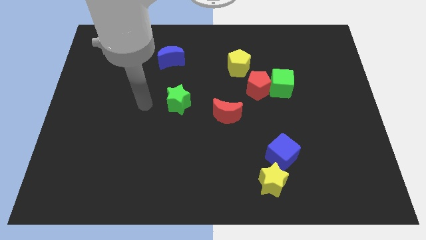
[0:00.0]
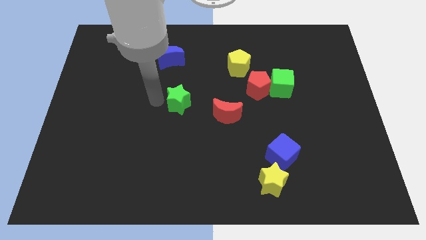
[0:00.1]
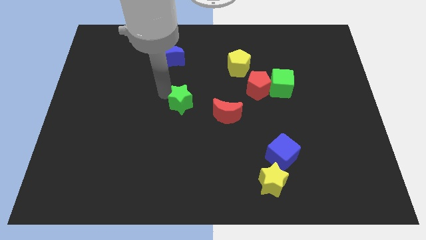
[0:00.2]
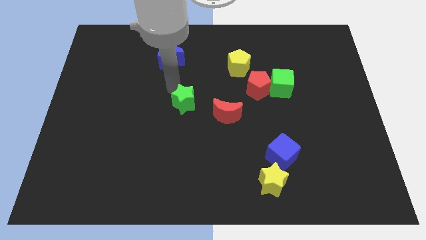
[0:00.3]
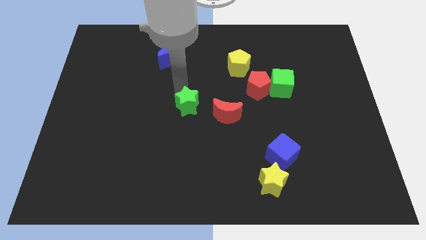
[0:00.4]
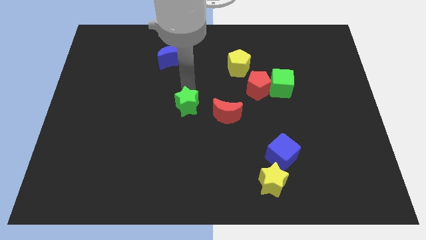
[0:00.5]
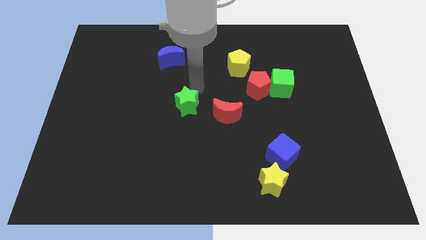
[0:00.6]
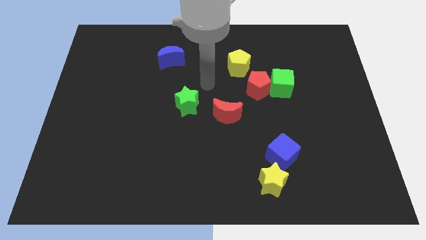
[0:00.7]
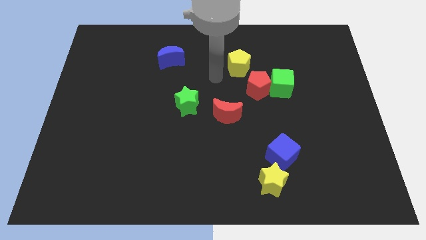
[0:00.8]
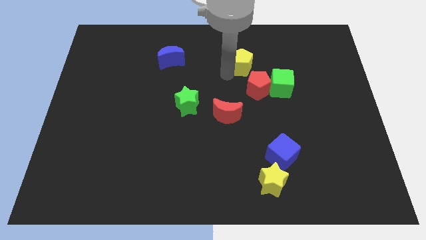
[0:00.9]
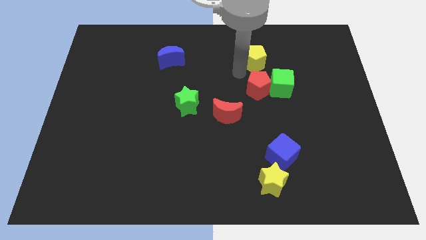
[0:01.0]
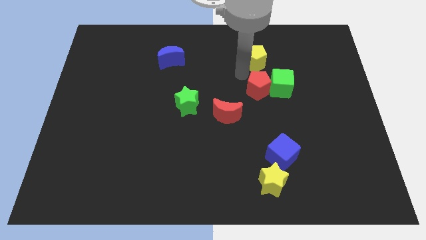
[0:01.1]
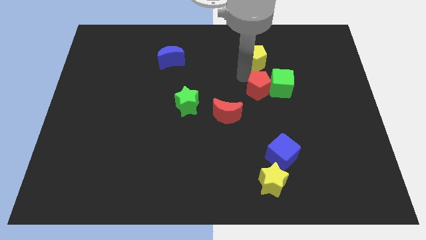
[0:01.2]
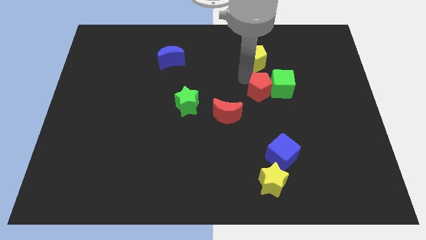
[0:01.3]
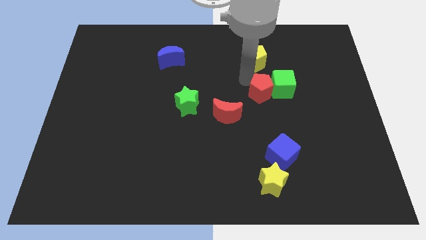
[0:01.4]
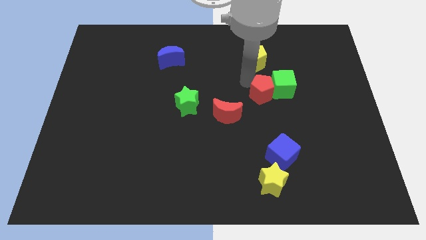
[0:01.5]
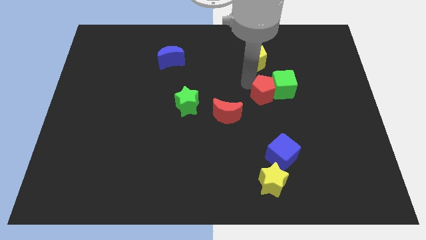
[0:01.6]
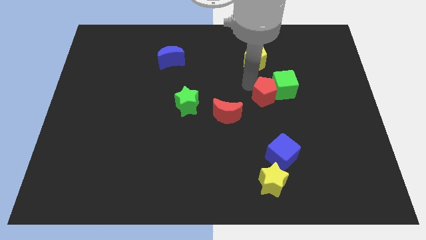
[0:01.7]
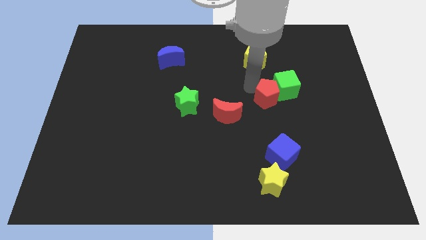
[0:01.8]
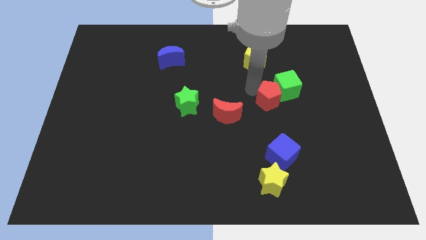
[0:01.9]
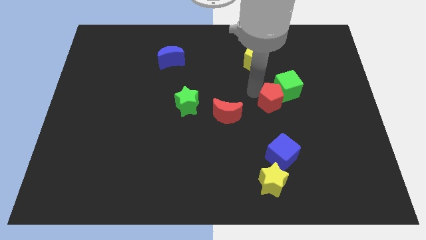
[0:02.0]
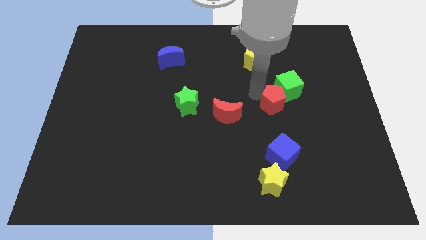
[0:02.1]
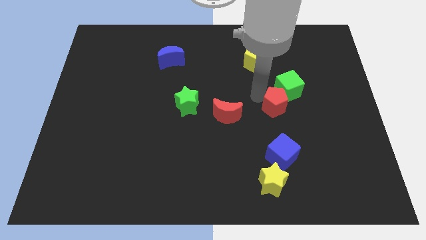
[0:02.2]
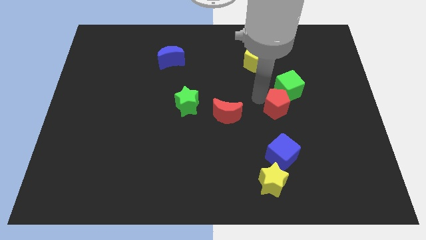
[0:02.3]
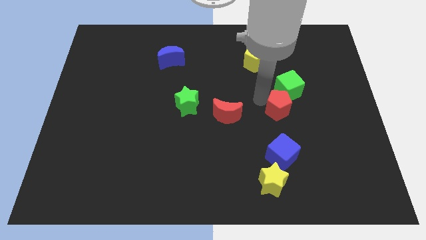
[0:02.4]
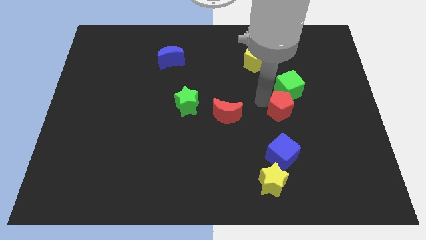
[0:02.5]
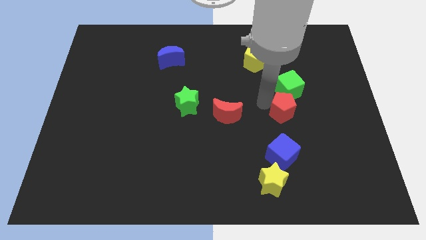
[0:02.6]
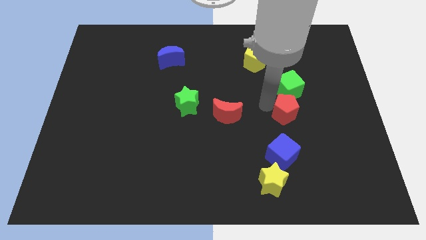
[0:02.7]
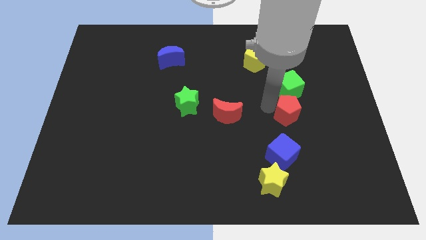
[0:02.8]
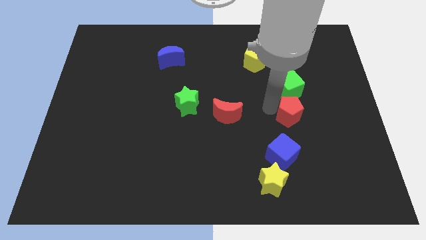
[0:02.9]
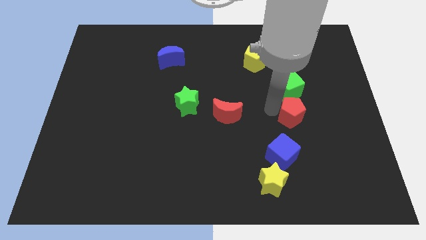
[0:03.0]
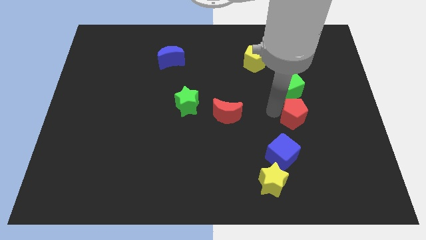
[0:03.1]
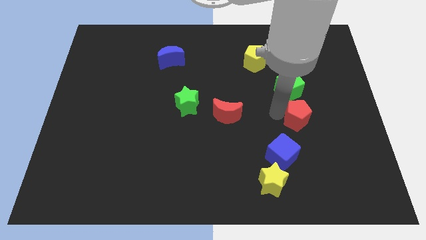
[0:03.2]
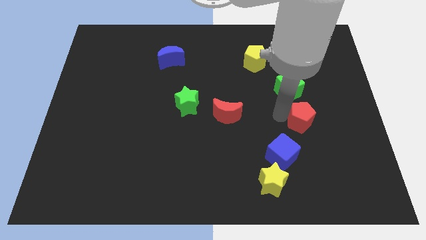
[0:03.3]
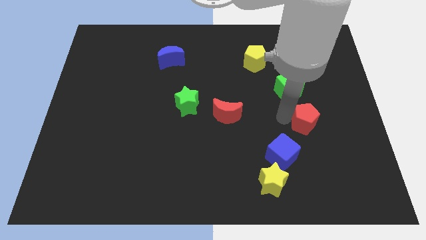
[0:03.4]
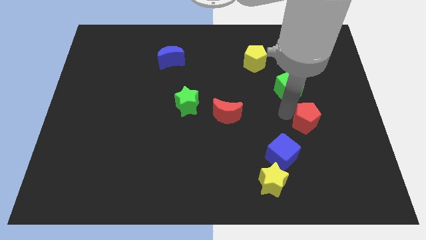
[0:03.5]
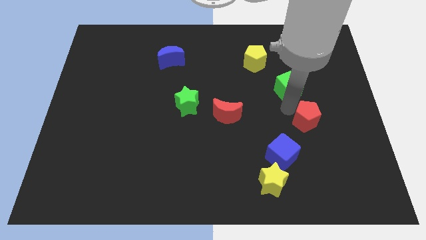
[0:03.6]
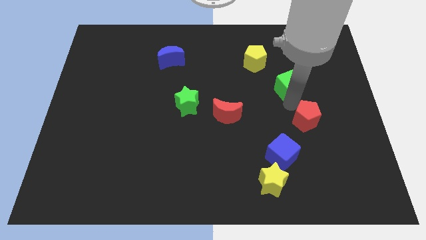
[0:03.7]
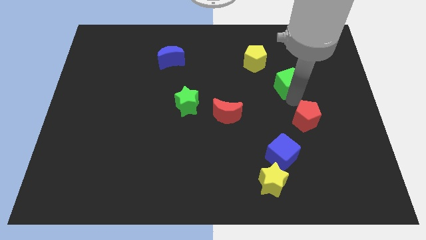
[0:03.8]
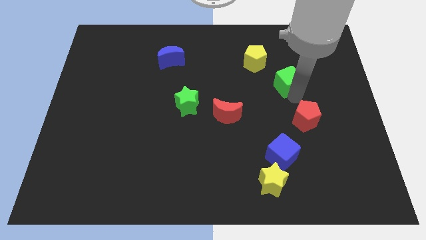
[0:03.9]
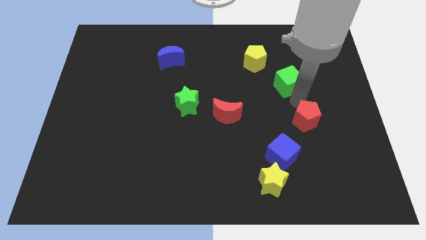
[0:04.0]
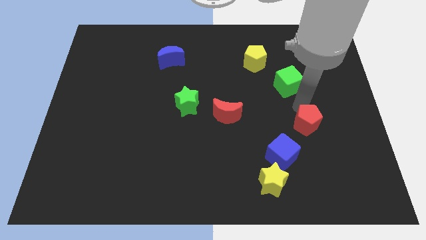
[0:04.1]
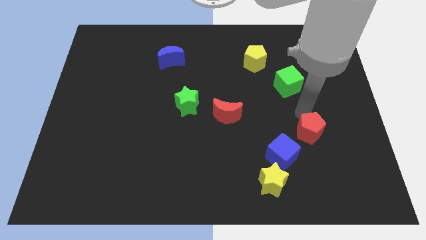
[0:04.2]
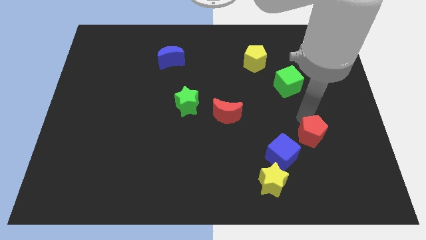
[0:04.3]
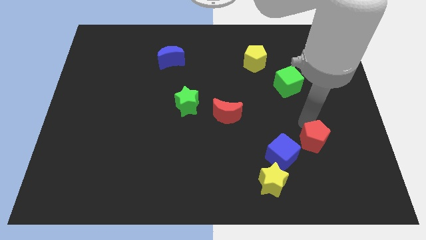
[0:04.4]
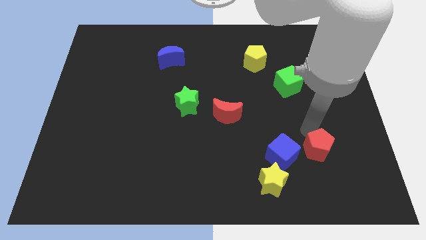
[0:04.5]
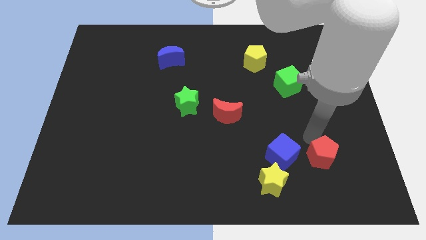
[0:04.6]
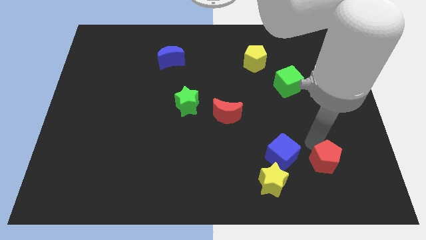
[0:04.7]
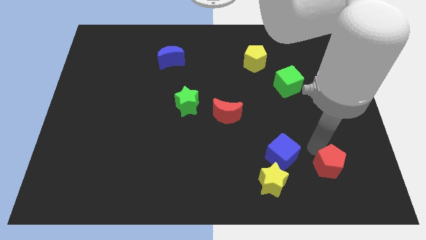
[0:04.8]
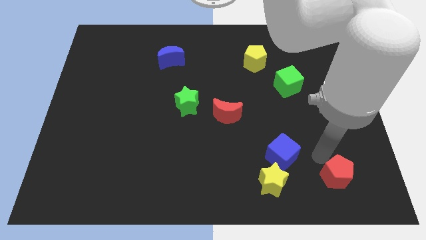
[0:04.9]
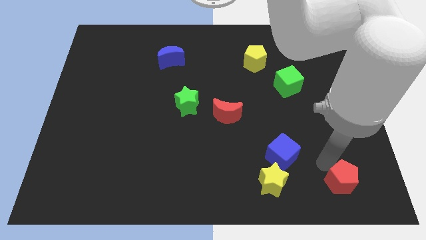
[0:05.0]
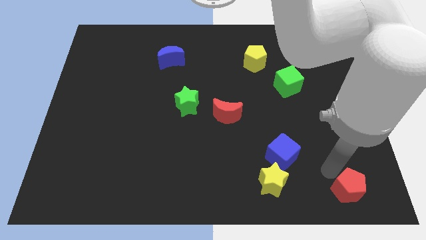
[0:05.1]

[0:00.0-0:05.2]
slide the red pentagon to the bottom right of the board

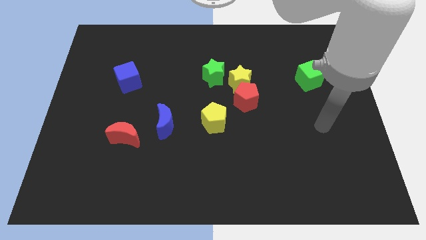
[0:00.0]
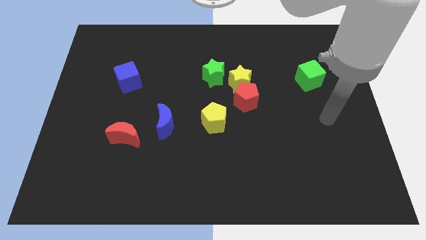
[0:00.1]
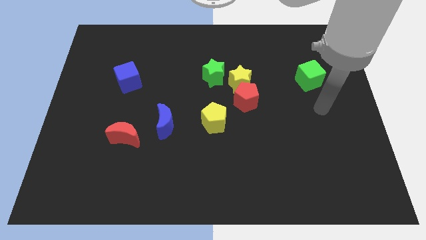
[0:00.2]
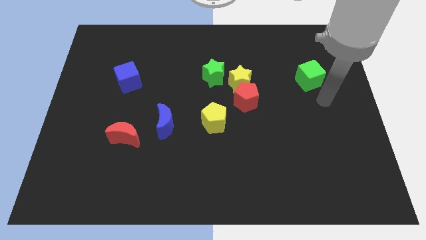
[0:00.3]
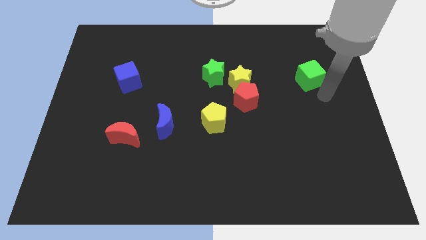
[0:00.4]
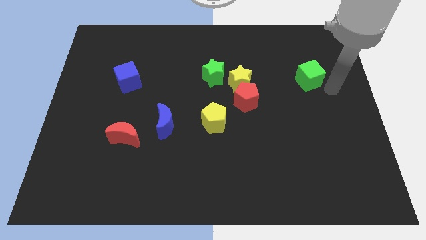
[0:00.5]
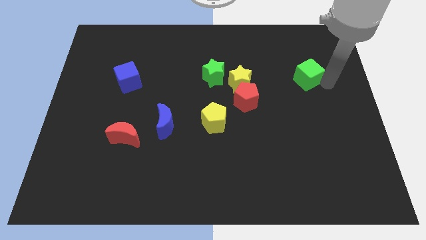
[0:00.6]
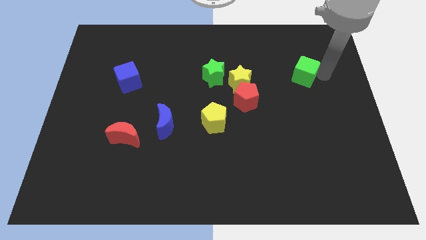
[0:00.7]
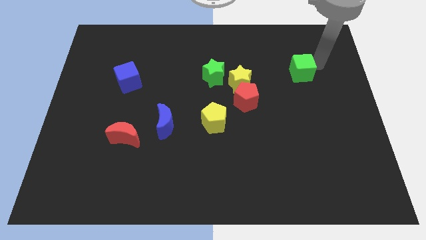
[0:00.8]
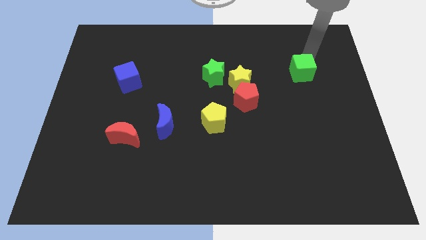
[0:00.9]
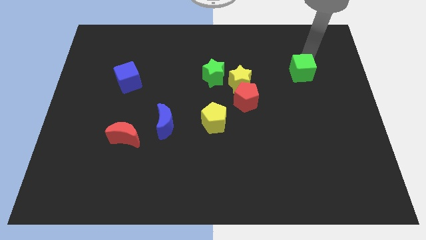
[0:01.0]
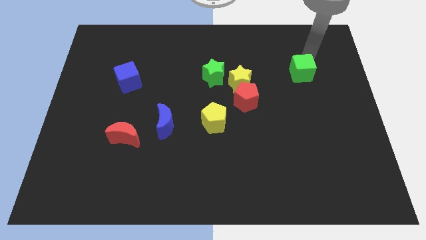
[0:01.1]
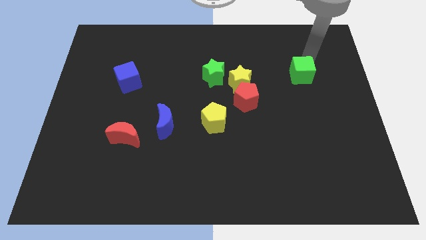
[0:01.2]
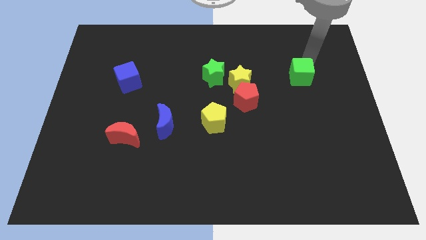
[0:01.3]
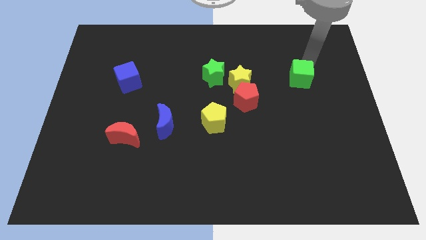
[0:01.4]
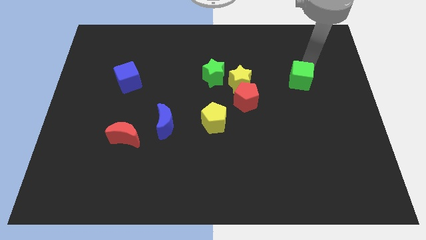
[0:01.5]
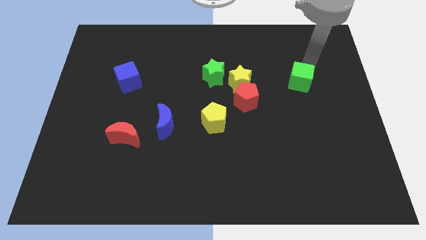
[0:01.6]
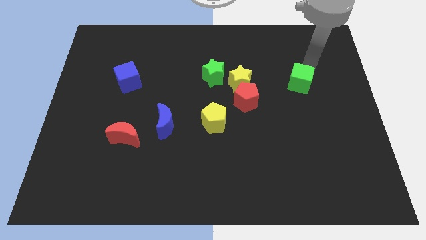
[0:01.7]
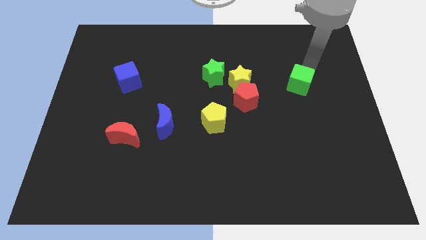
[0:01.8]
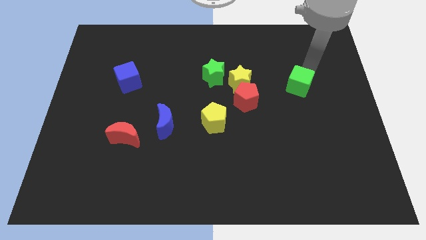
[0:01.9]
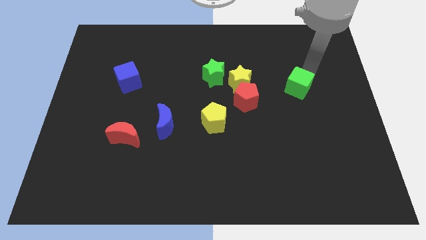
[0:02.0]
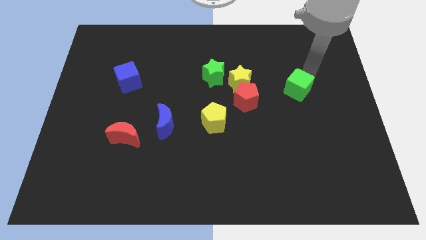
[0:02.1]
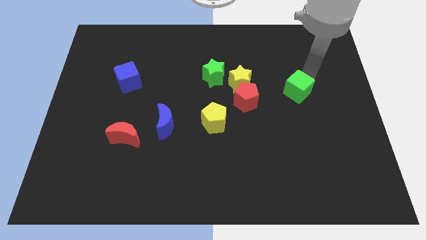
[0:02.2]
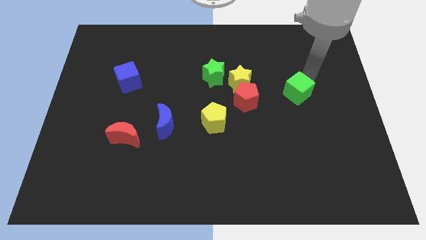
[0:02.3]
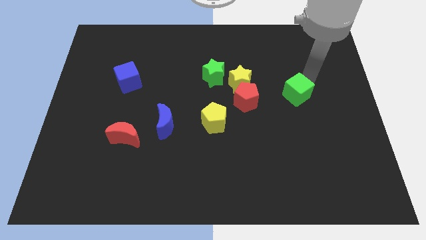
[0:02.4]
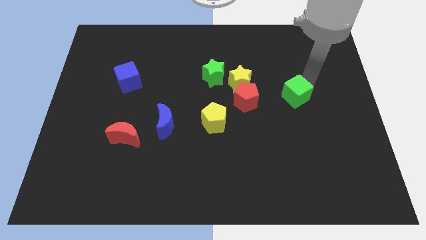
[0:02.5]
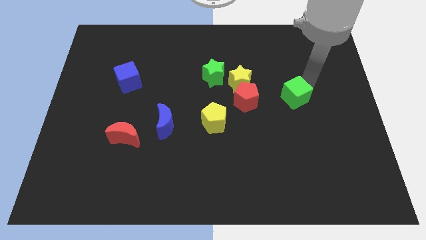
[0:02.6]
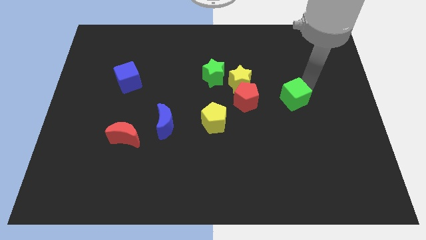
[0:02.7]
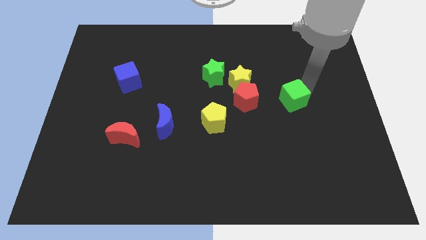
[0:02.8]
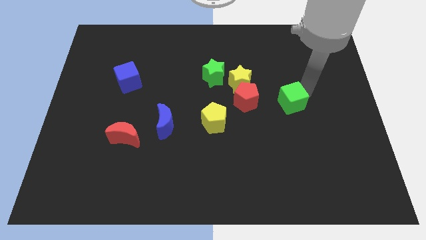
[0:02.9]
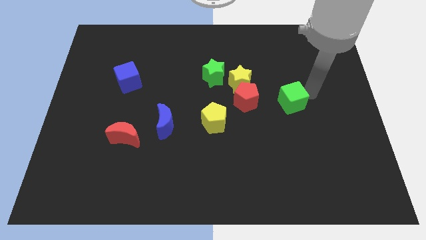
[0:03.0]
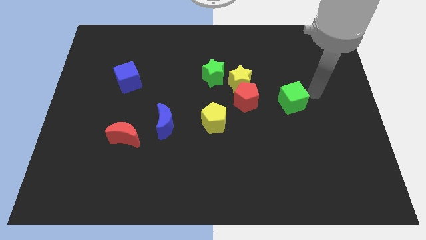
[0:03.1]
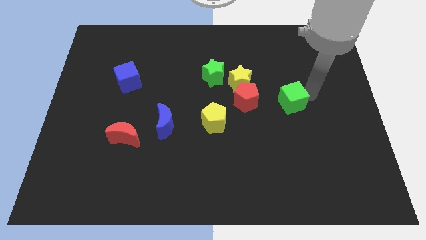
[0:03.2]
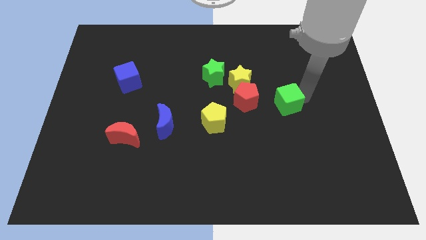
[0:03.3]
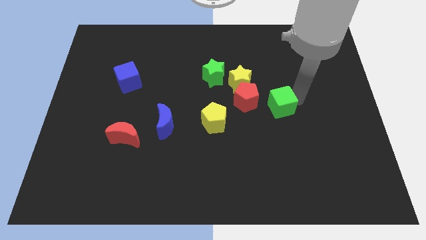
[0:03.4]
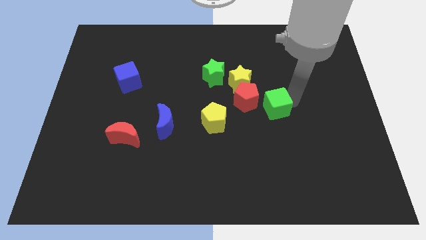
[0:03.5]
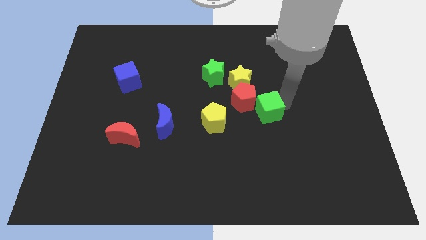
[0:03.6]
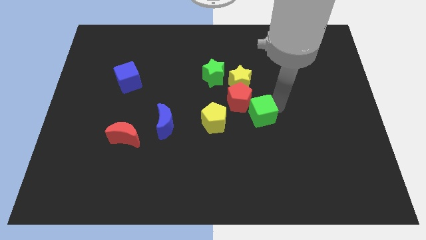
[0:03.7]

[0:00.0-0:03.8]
slide the green cube to the middle of the board
